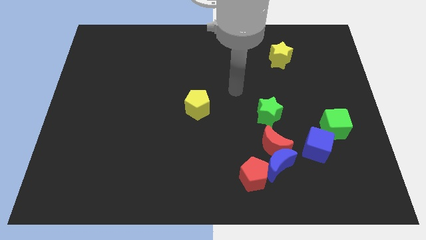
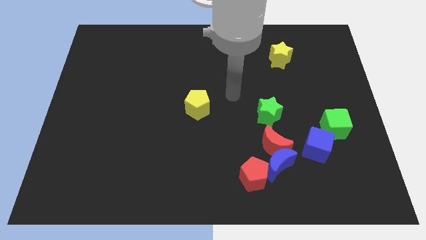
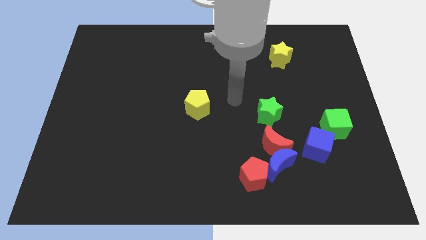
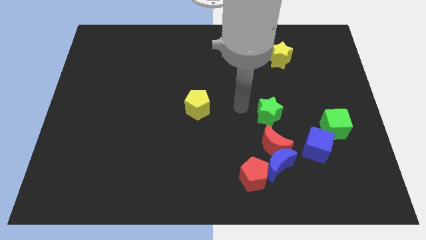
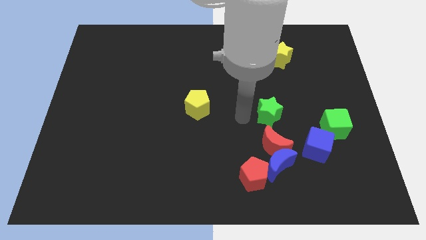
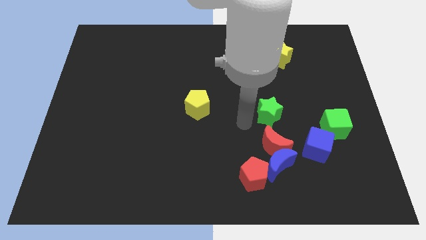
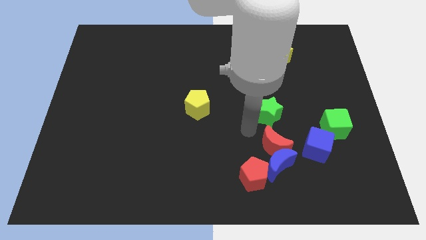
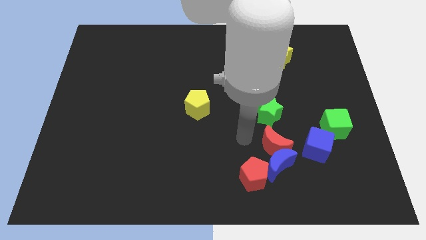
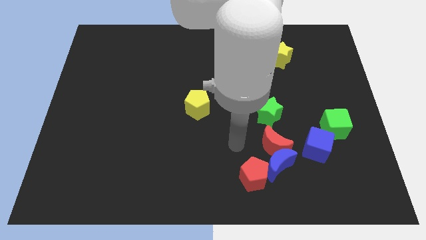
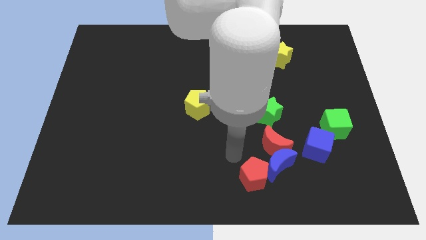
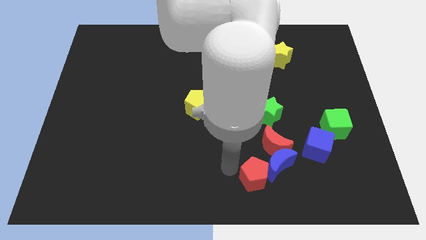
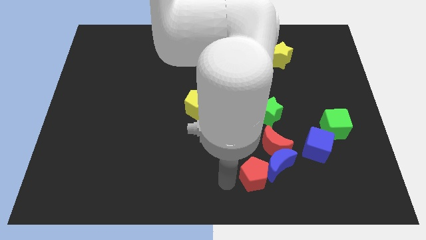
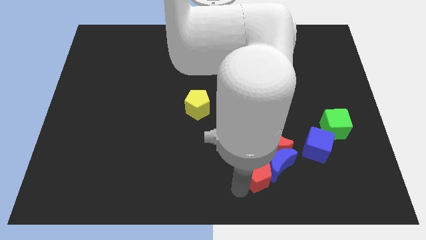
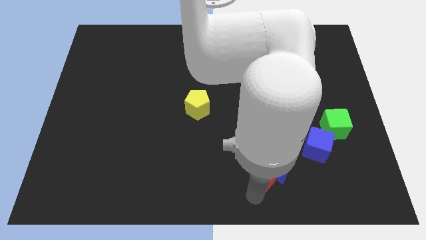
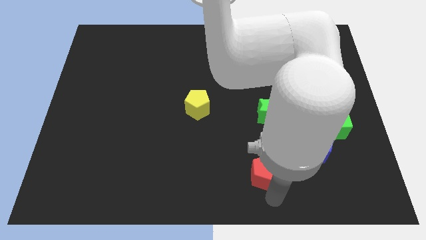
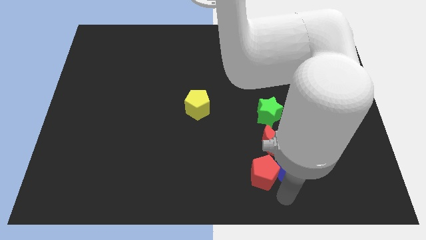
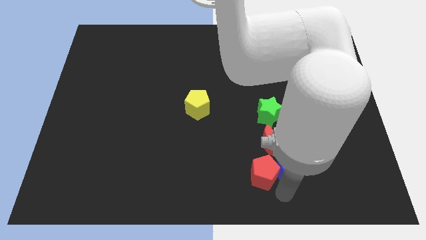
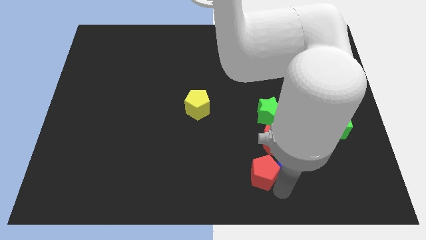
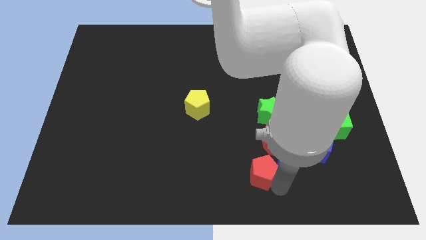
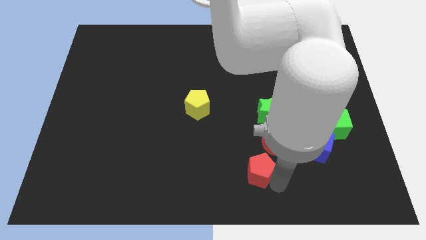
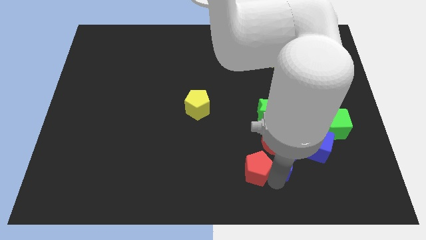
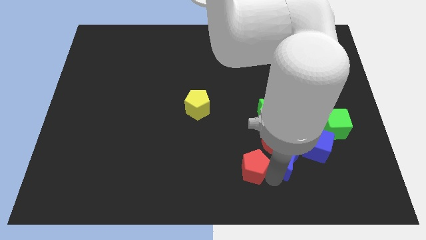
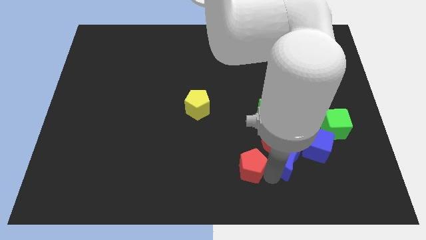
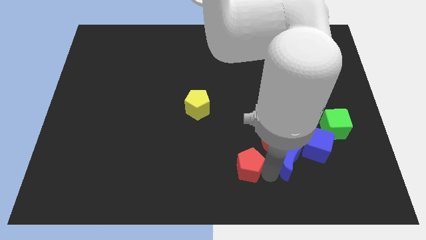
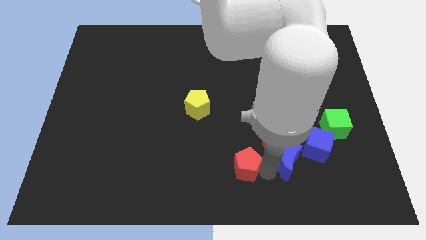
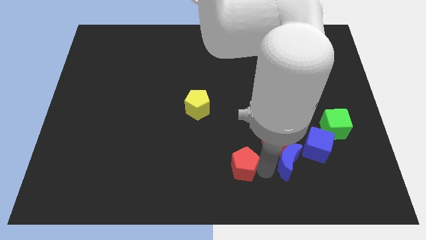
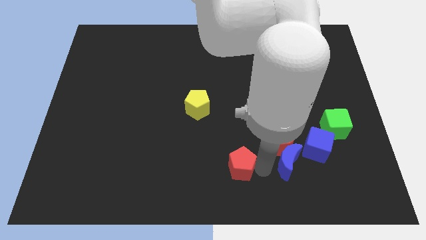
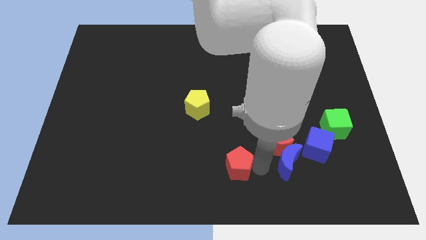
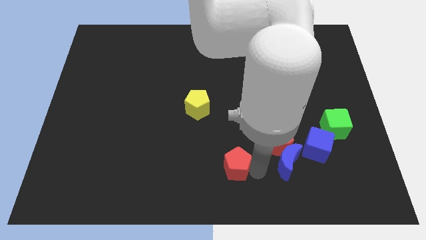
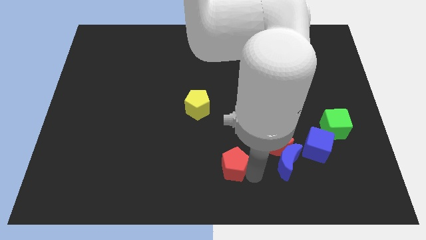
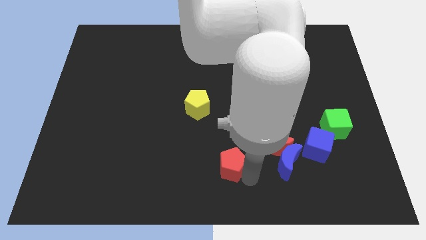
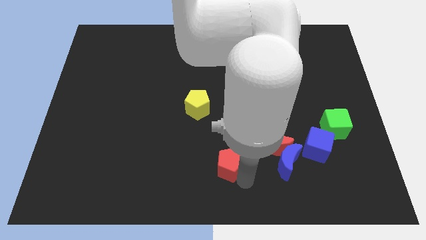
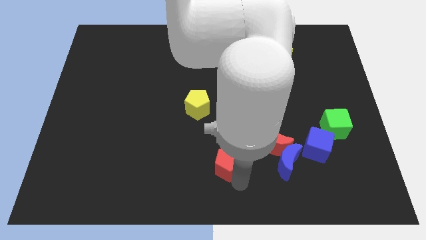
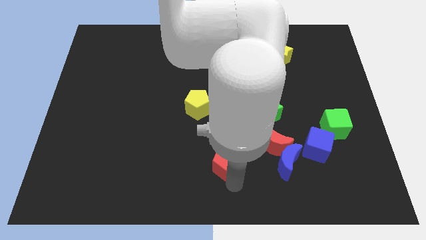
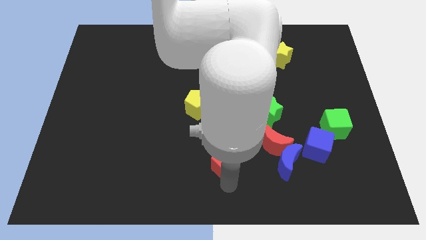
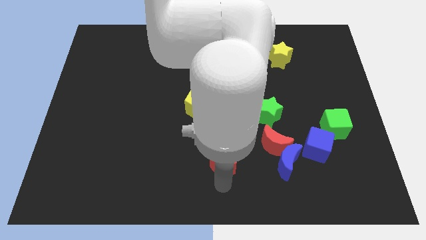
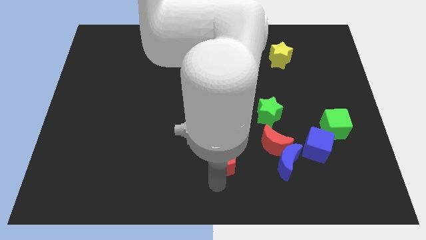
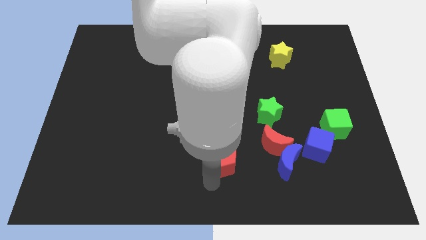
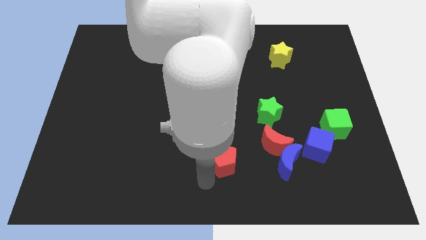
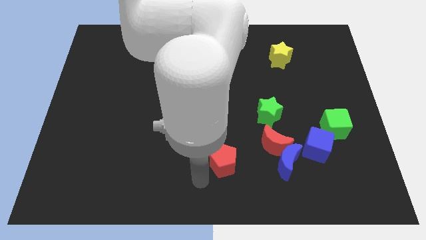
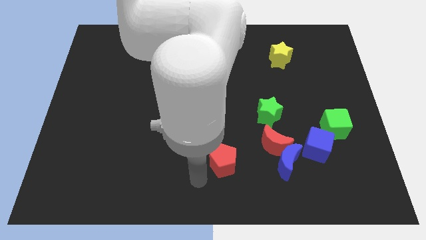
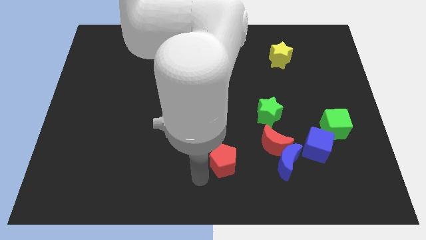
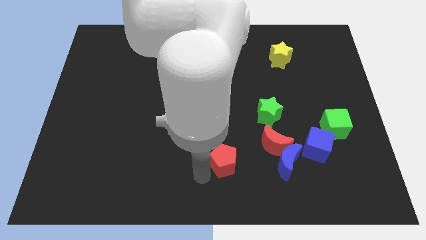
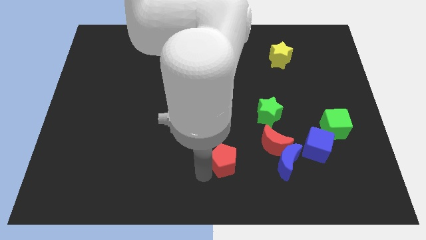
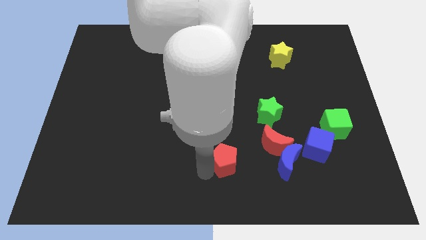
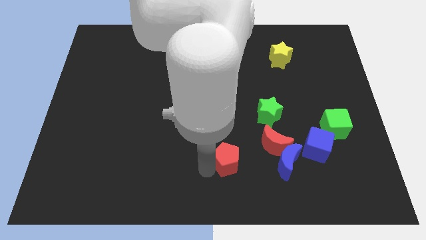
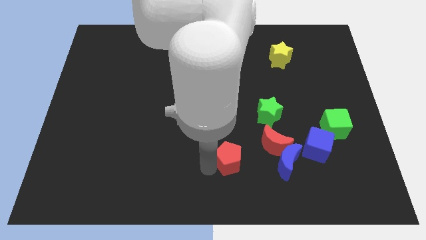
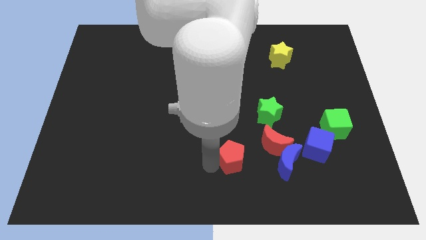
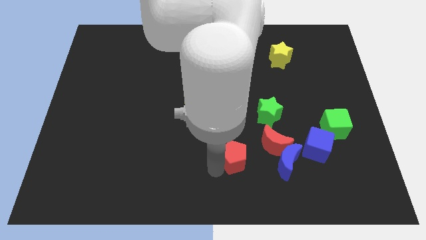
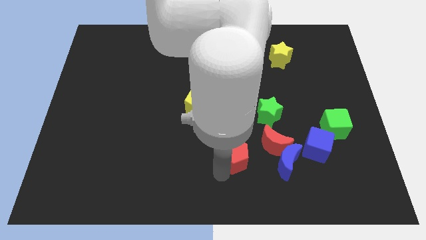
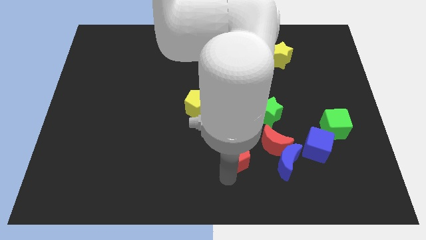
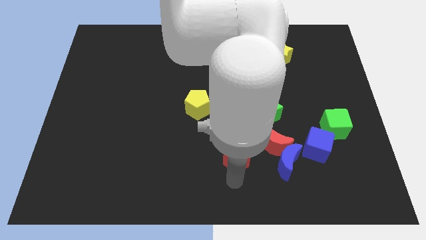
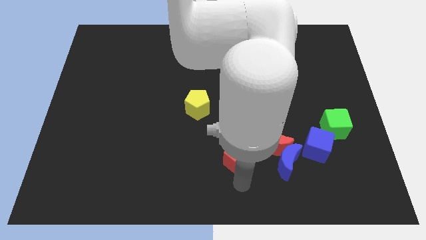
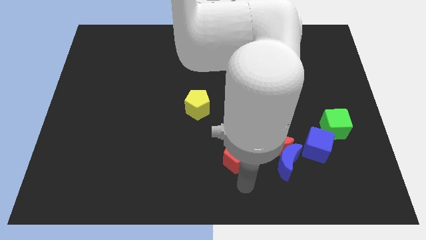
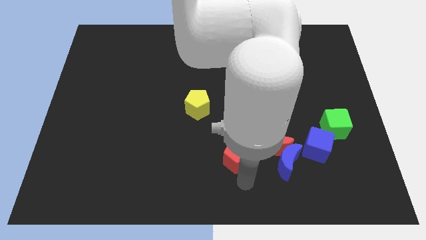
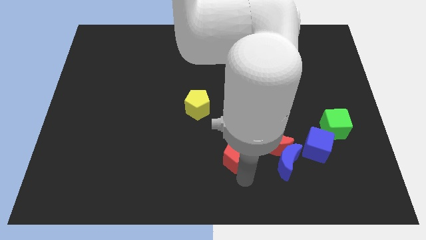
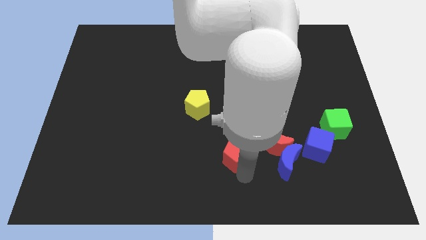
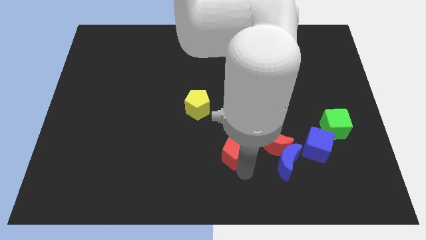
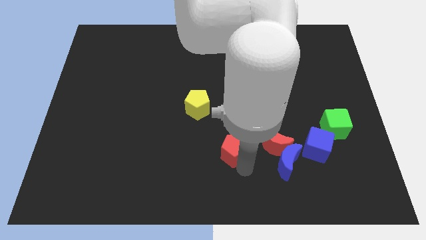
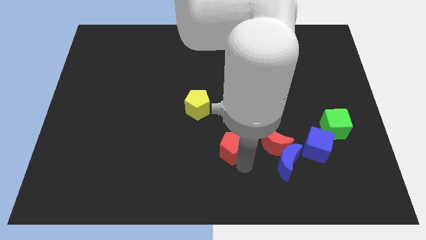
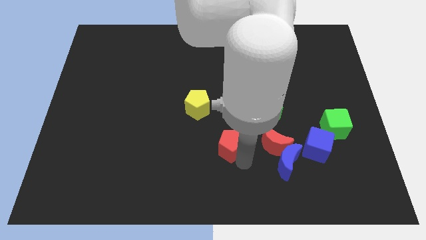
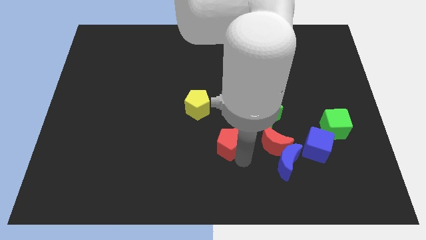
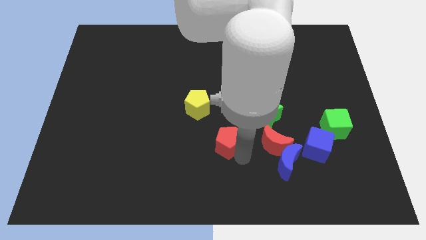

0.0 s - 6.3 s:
move the red pentagon to the center of the board

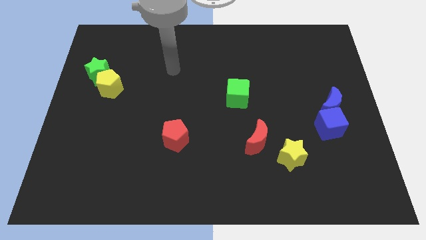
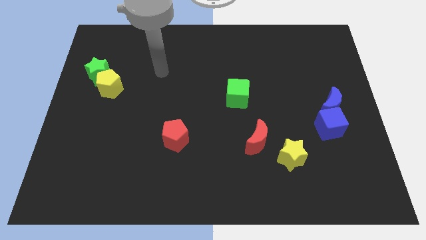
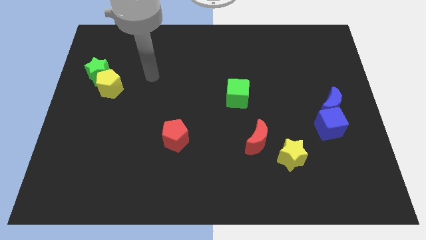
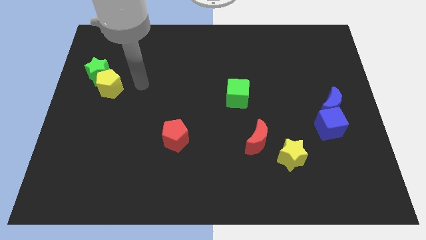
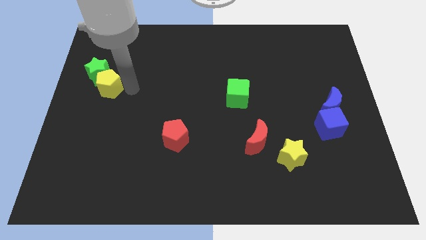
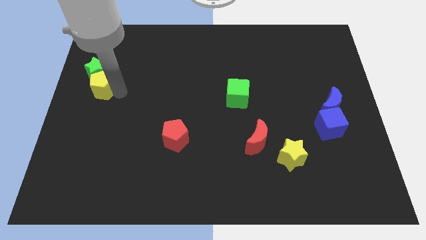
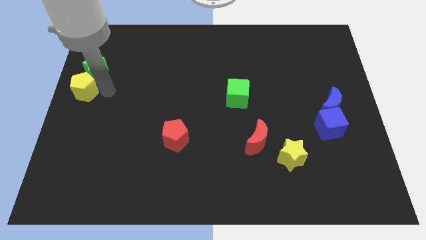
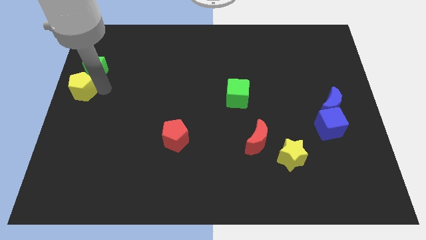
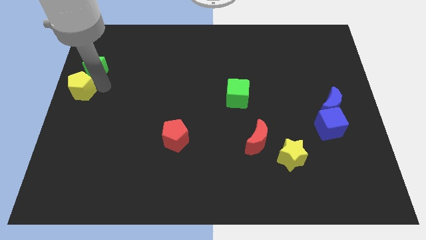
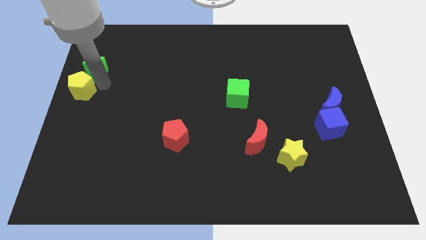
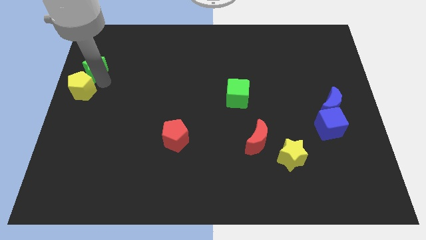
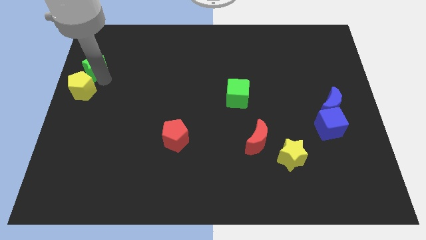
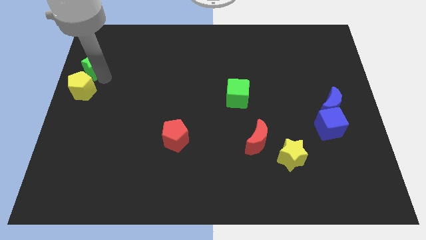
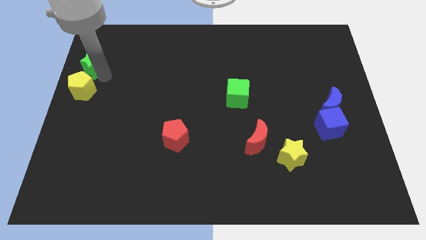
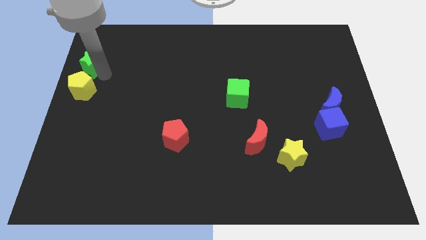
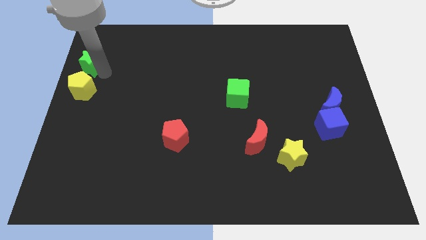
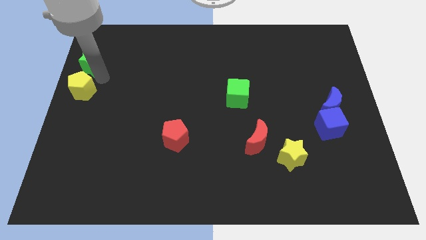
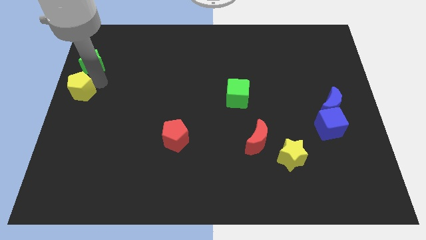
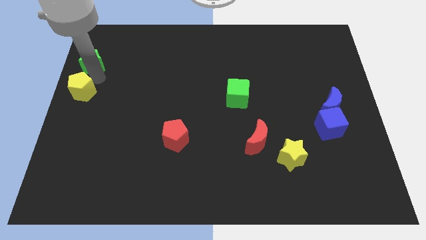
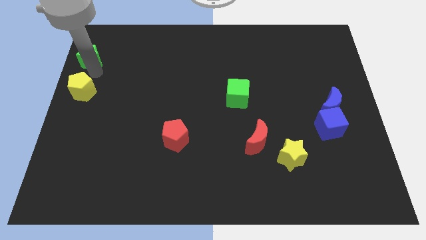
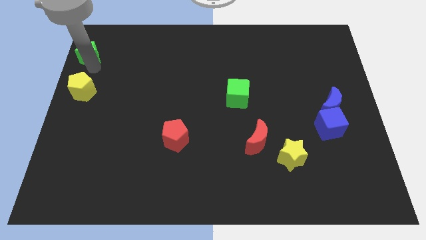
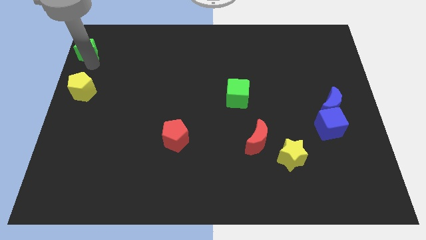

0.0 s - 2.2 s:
move the green star to the upper left corner
